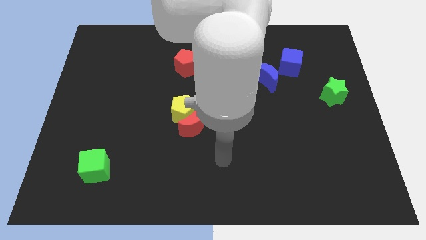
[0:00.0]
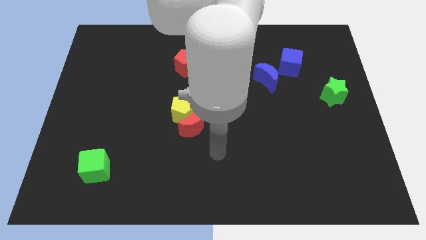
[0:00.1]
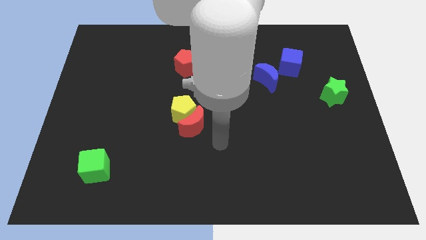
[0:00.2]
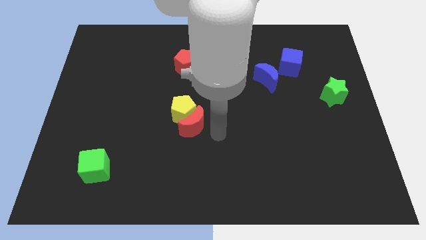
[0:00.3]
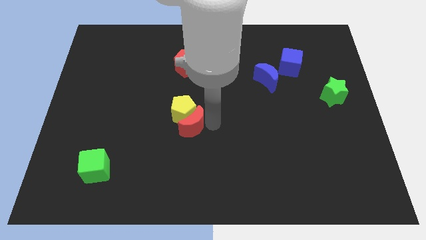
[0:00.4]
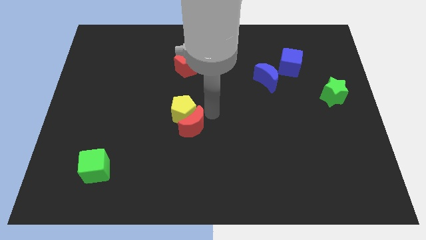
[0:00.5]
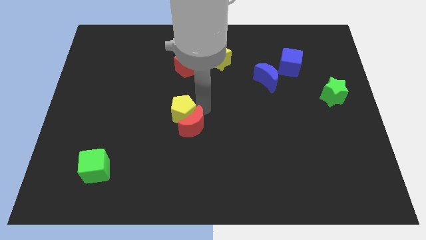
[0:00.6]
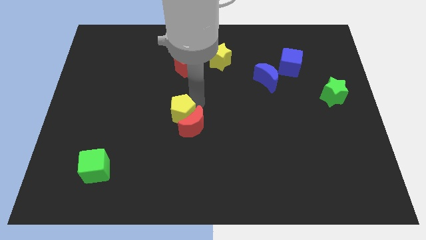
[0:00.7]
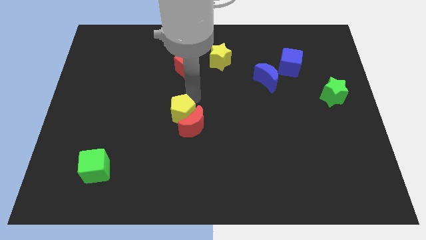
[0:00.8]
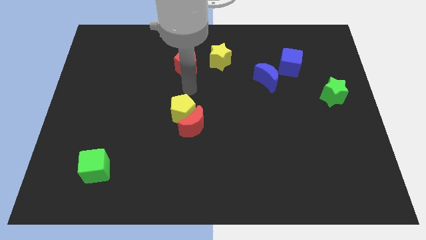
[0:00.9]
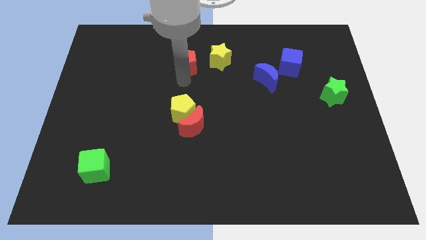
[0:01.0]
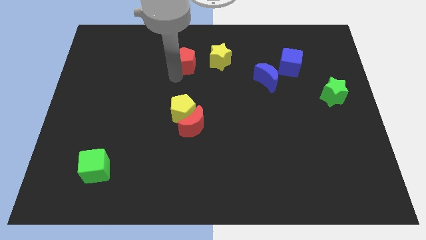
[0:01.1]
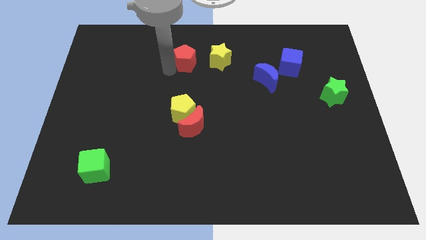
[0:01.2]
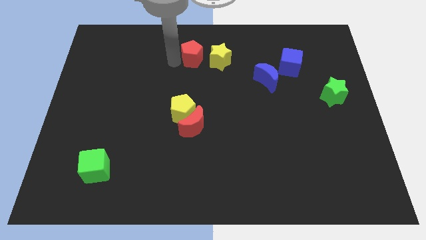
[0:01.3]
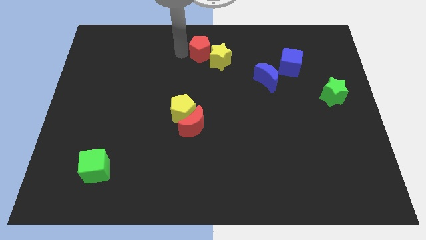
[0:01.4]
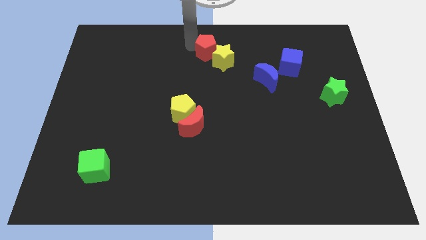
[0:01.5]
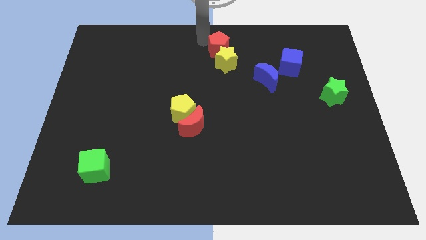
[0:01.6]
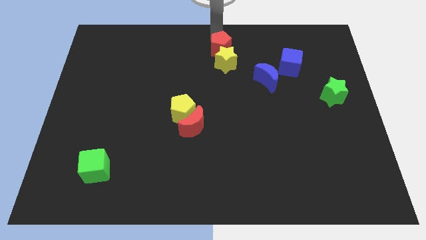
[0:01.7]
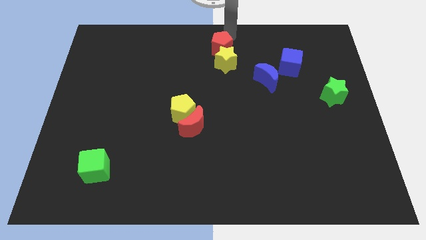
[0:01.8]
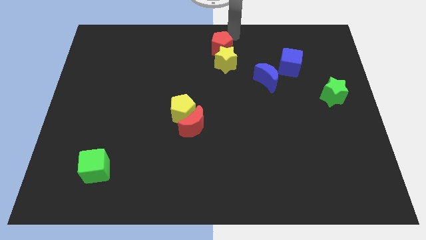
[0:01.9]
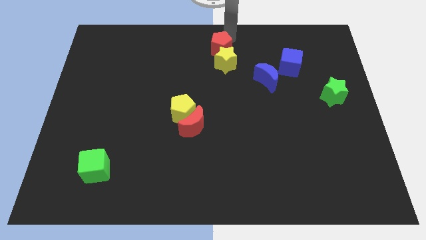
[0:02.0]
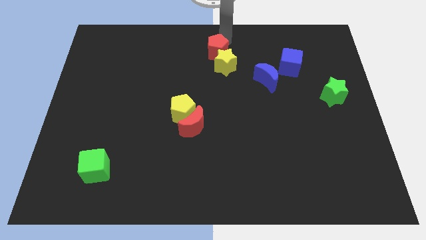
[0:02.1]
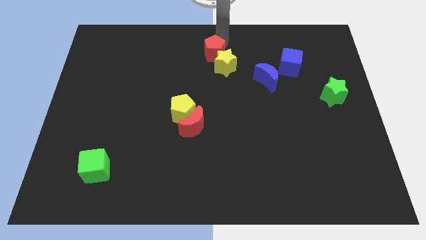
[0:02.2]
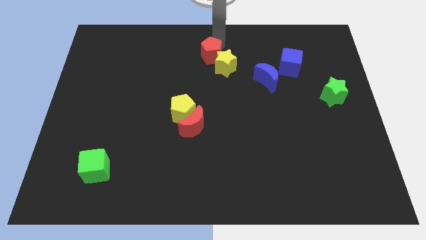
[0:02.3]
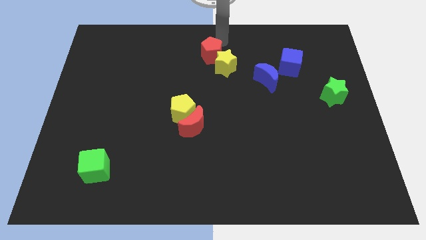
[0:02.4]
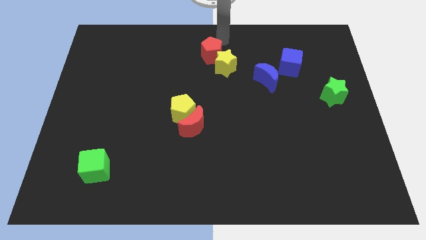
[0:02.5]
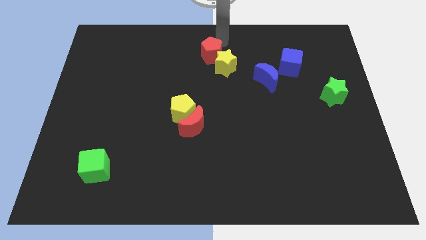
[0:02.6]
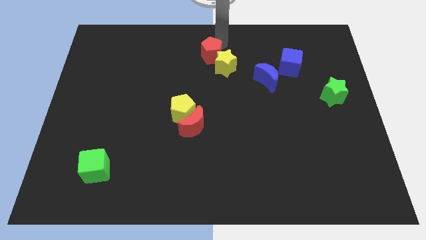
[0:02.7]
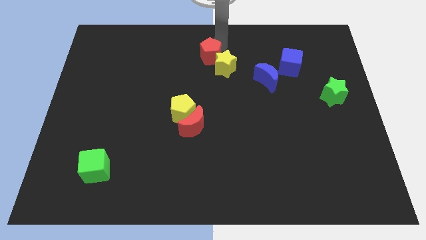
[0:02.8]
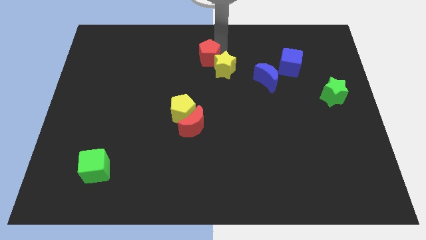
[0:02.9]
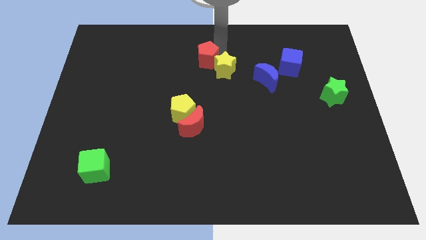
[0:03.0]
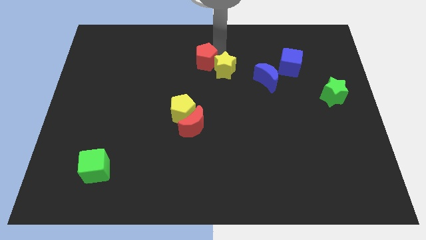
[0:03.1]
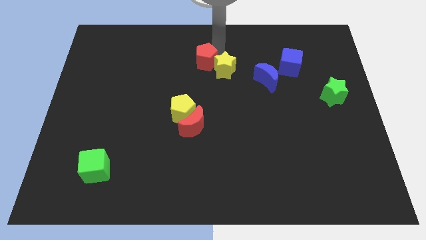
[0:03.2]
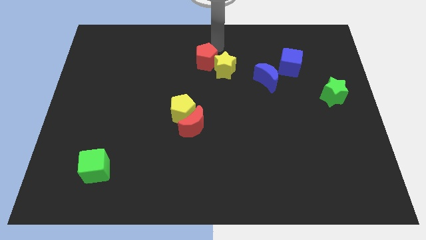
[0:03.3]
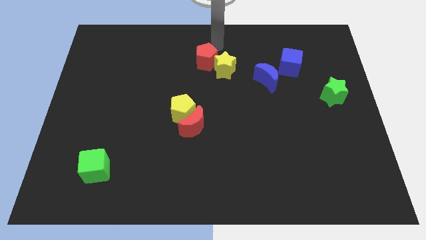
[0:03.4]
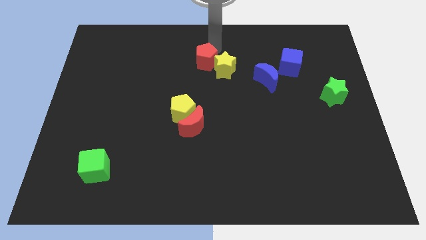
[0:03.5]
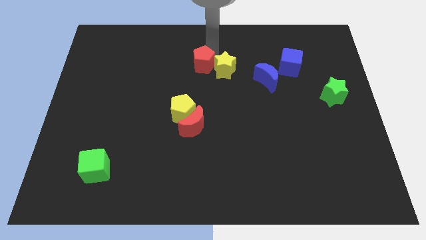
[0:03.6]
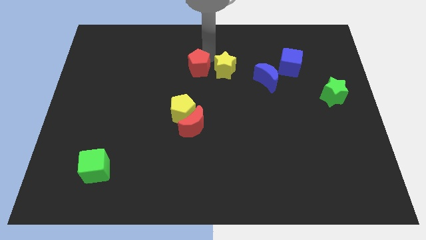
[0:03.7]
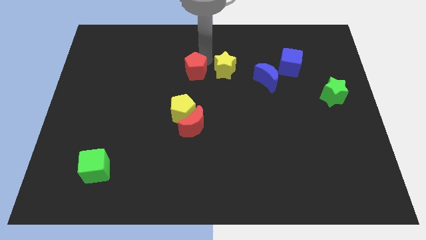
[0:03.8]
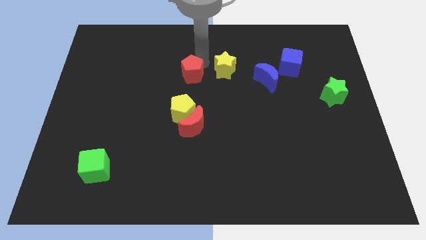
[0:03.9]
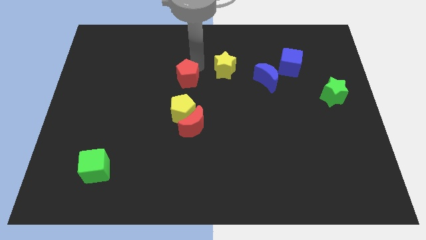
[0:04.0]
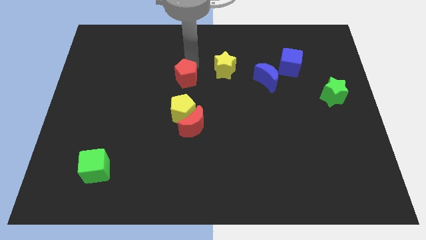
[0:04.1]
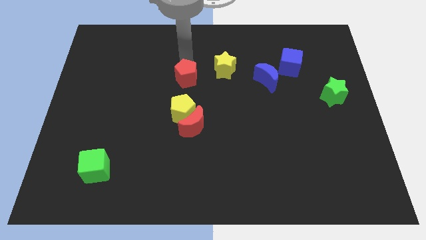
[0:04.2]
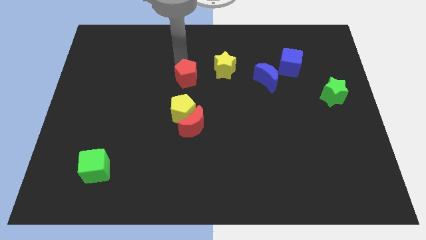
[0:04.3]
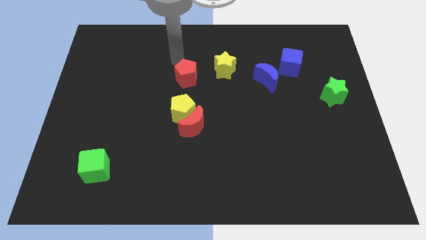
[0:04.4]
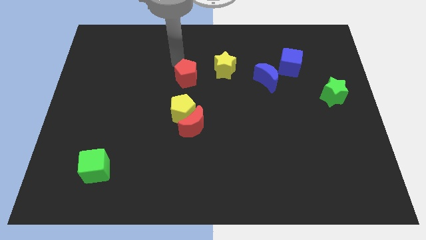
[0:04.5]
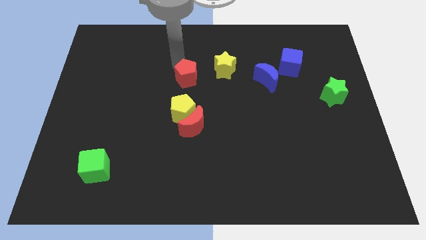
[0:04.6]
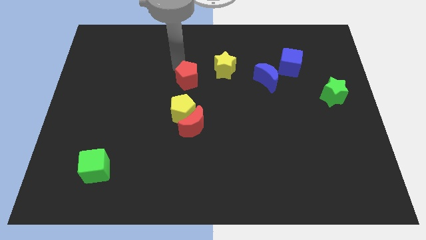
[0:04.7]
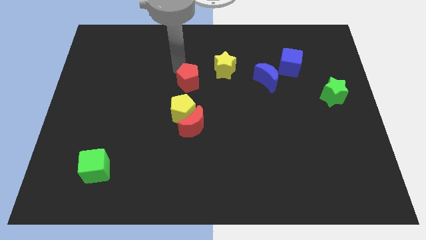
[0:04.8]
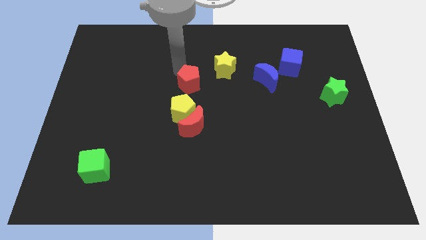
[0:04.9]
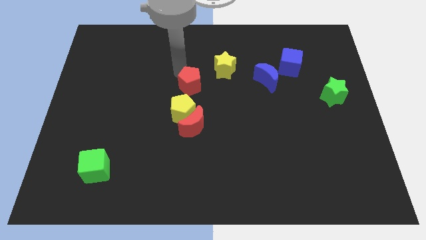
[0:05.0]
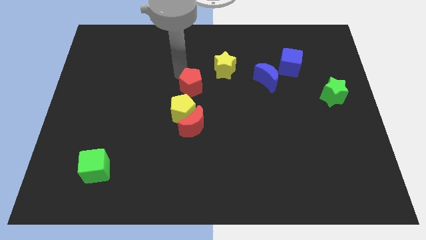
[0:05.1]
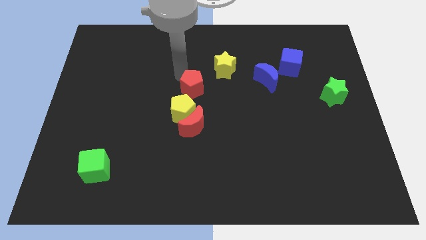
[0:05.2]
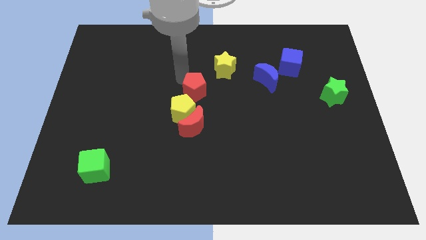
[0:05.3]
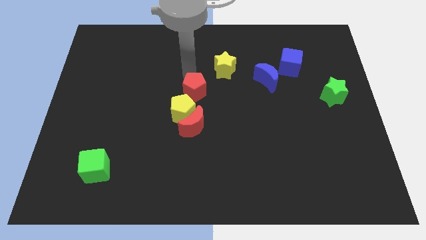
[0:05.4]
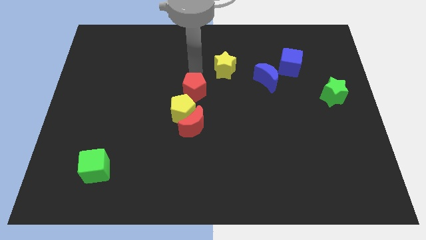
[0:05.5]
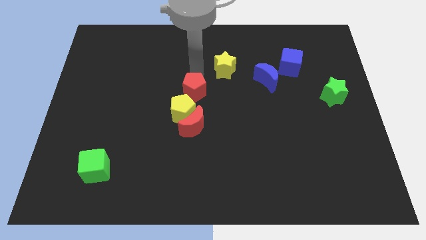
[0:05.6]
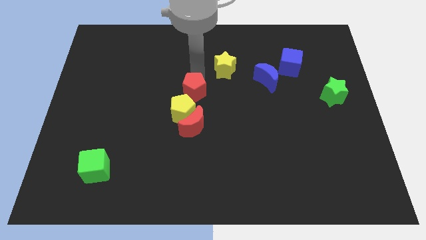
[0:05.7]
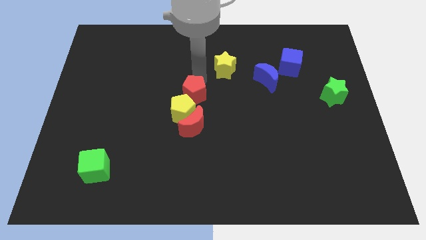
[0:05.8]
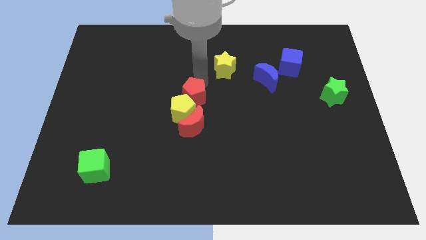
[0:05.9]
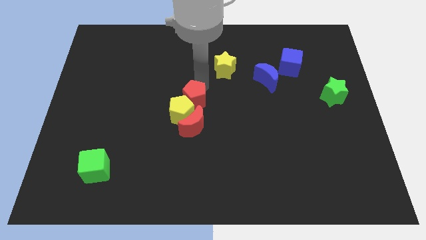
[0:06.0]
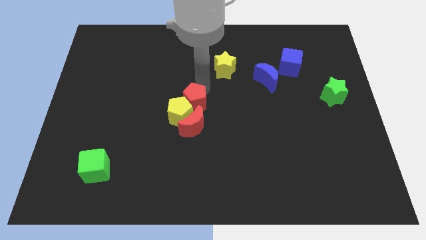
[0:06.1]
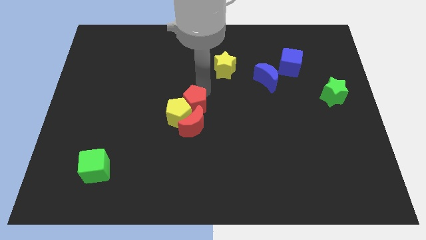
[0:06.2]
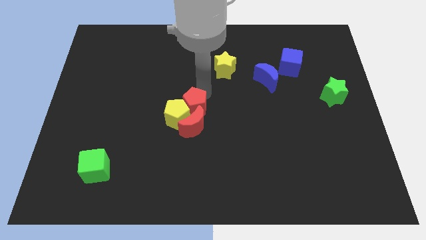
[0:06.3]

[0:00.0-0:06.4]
put the red pentagon close to the red moon

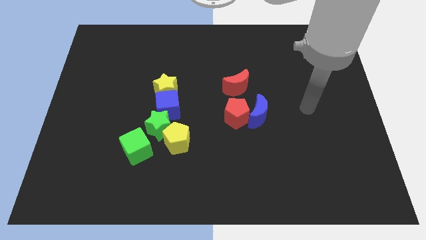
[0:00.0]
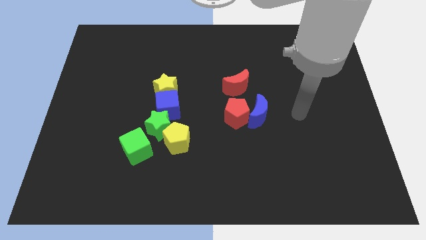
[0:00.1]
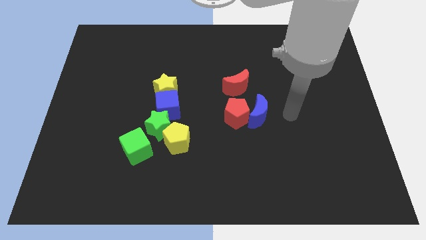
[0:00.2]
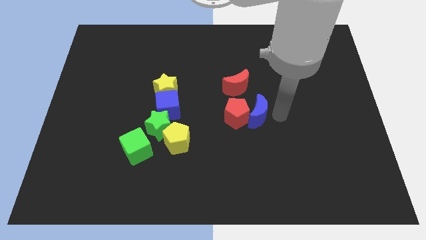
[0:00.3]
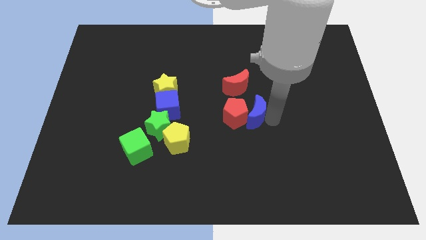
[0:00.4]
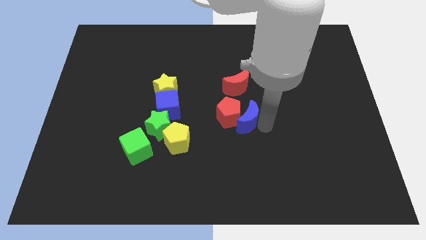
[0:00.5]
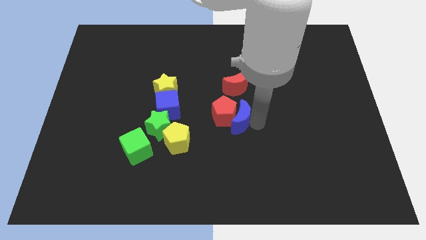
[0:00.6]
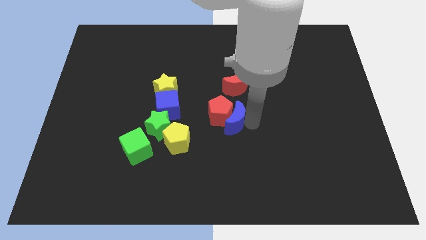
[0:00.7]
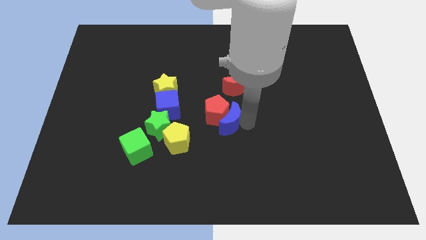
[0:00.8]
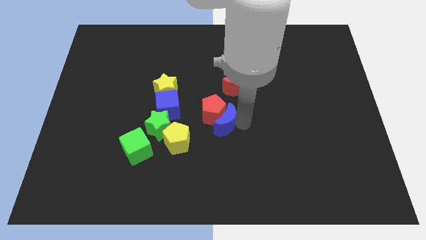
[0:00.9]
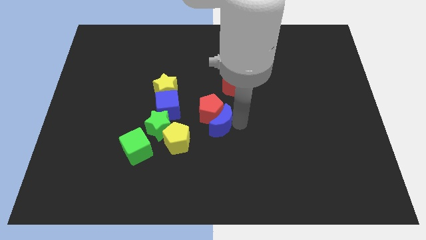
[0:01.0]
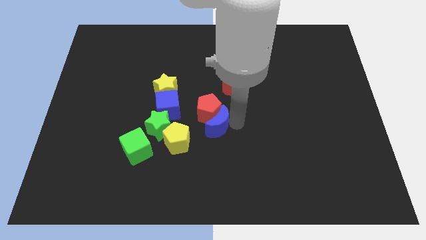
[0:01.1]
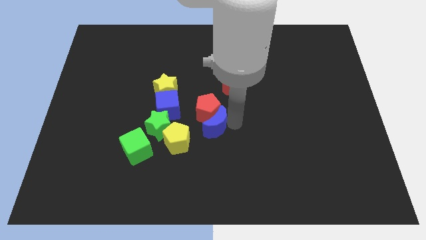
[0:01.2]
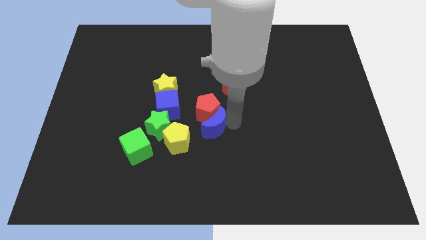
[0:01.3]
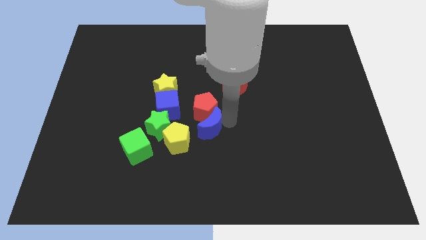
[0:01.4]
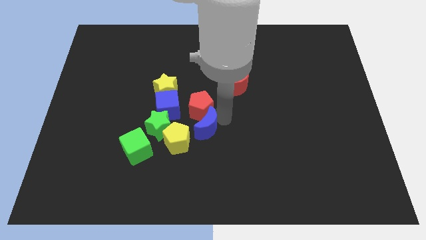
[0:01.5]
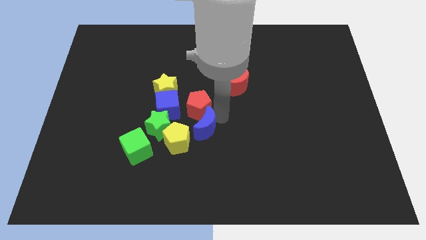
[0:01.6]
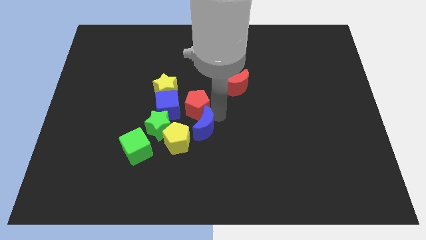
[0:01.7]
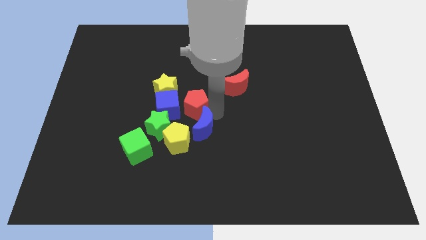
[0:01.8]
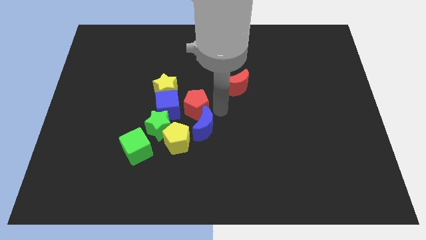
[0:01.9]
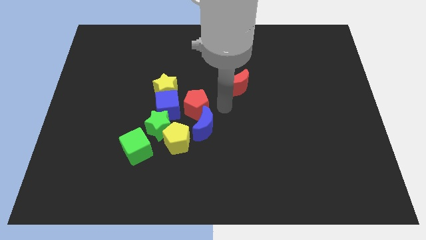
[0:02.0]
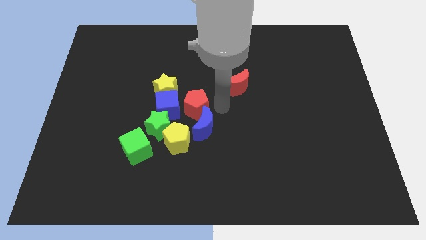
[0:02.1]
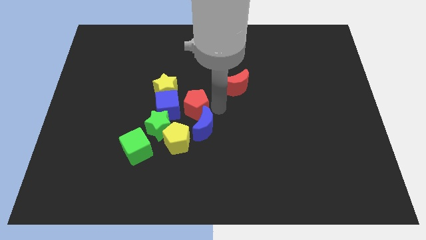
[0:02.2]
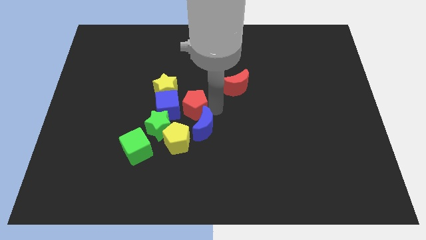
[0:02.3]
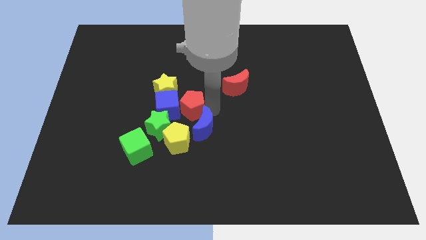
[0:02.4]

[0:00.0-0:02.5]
move the red pentagon close to the blue cube
